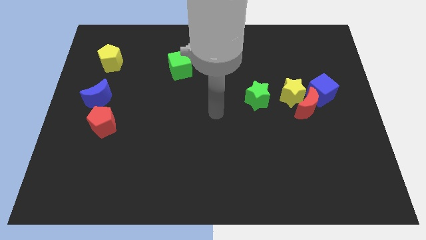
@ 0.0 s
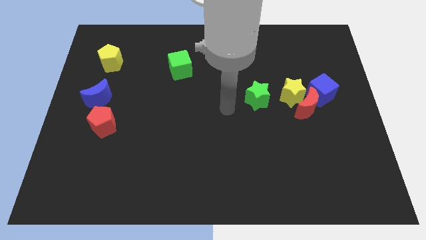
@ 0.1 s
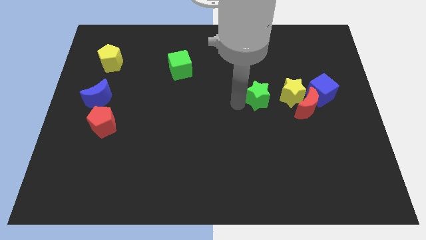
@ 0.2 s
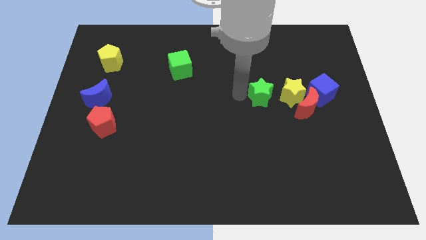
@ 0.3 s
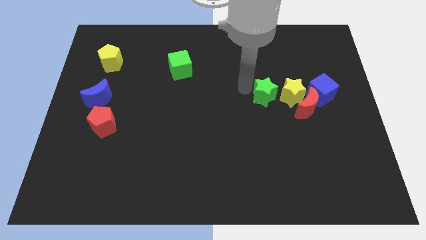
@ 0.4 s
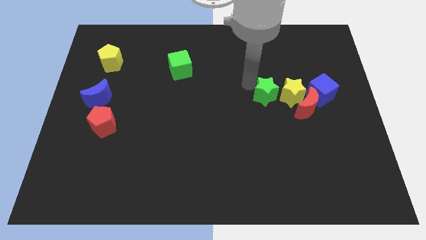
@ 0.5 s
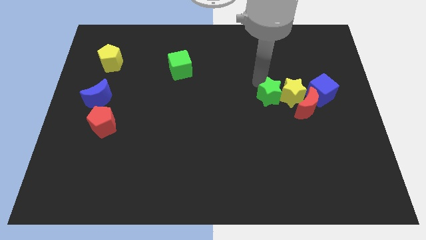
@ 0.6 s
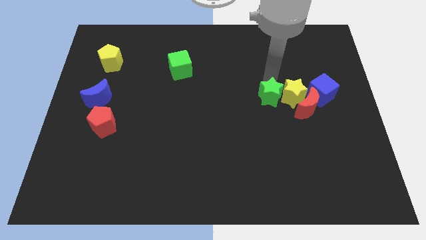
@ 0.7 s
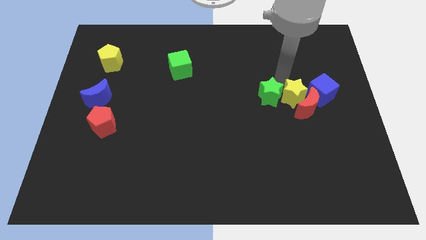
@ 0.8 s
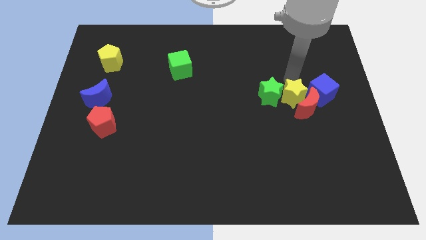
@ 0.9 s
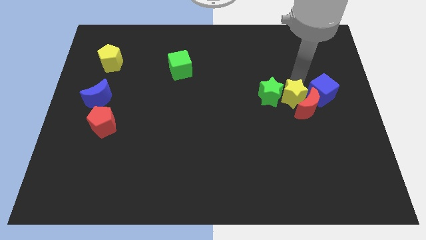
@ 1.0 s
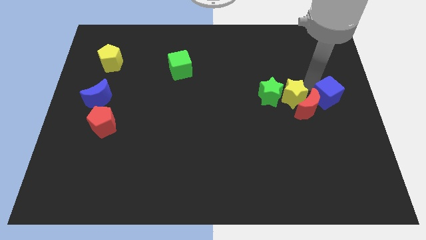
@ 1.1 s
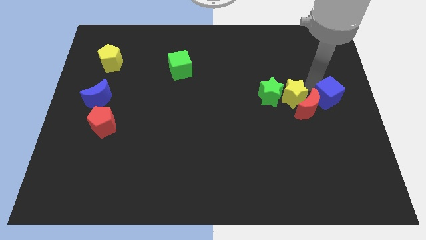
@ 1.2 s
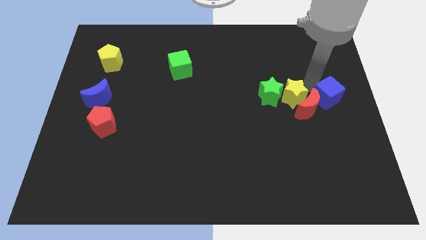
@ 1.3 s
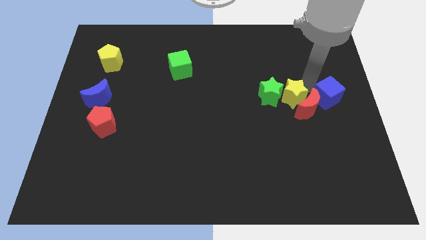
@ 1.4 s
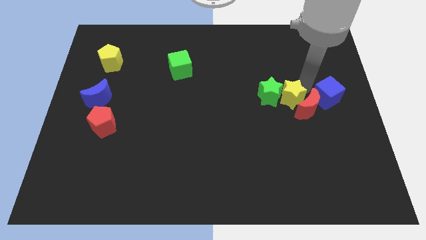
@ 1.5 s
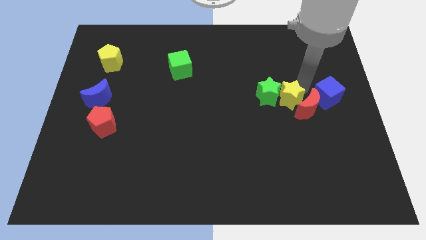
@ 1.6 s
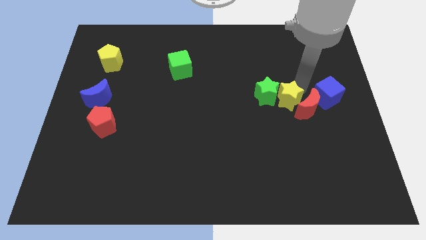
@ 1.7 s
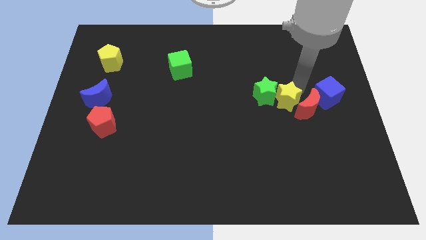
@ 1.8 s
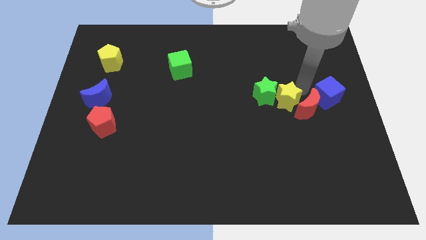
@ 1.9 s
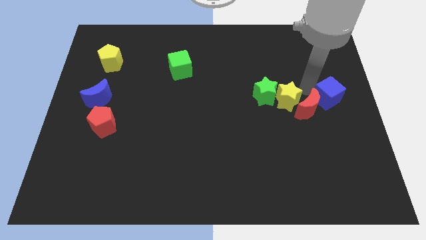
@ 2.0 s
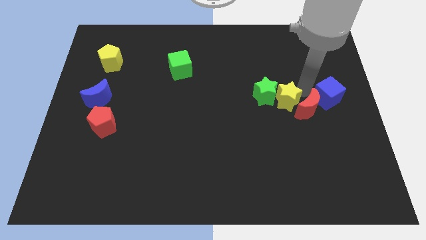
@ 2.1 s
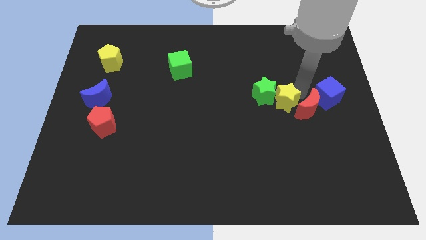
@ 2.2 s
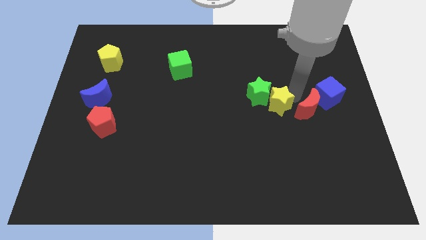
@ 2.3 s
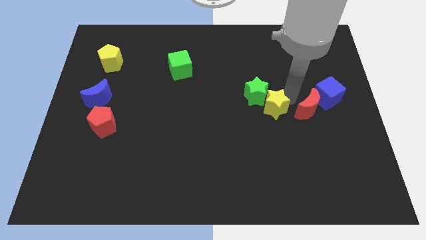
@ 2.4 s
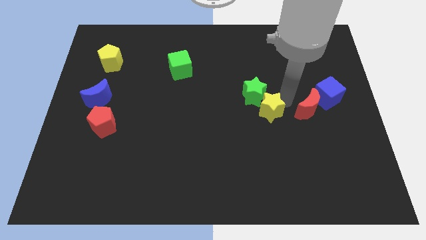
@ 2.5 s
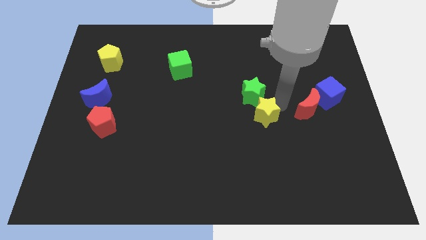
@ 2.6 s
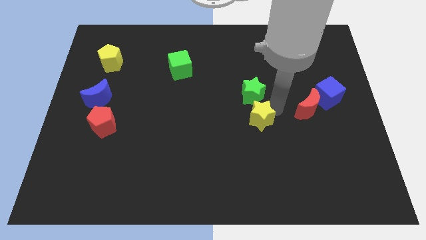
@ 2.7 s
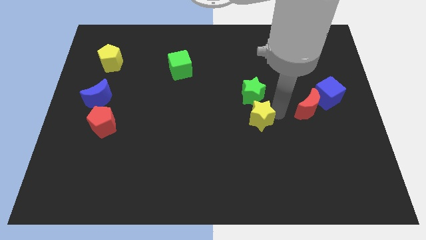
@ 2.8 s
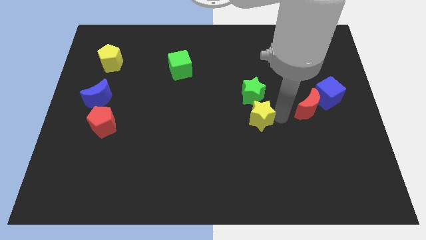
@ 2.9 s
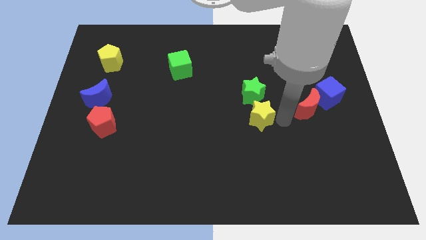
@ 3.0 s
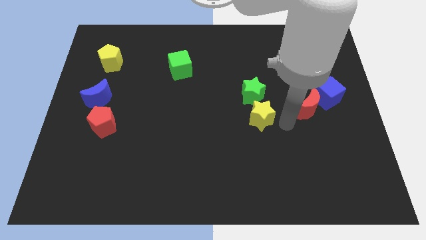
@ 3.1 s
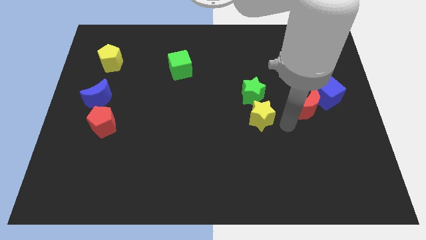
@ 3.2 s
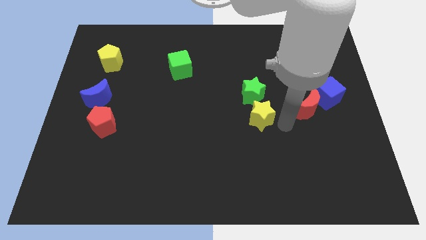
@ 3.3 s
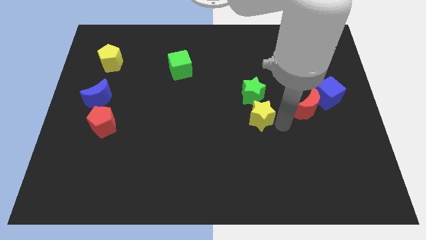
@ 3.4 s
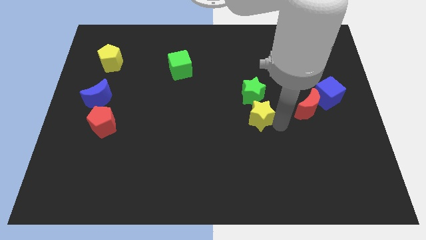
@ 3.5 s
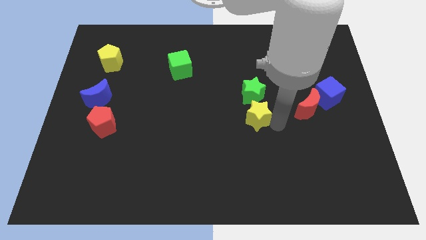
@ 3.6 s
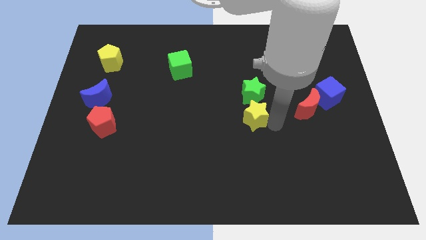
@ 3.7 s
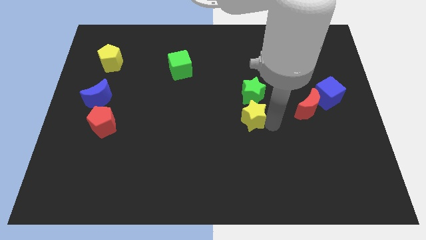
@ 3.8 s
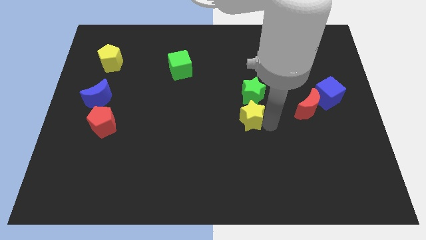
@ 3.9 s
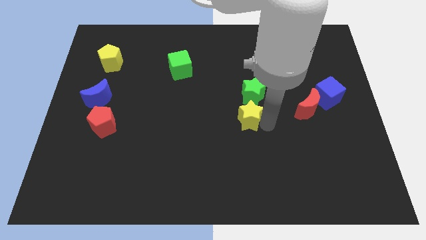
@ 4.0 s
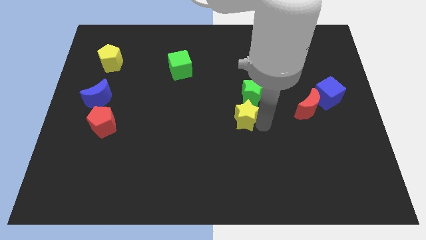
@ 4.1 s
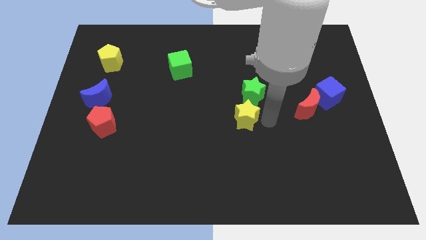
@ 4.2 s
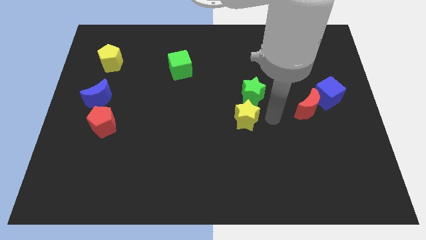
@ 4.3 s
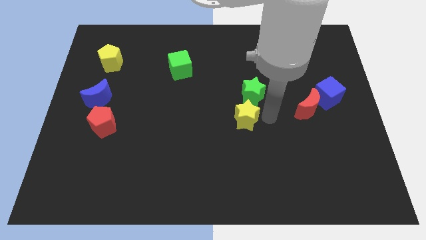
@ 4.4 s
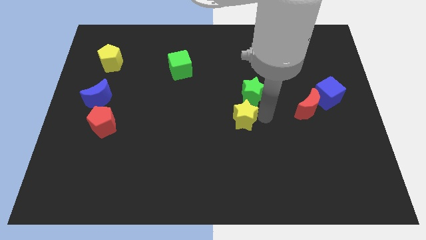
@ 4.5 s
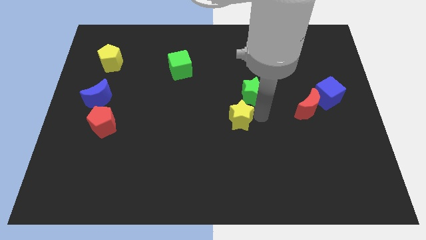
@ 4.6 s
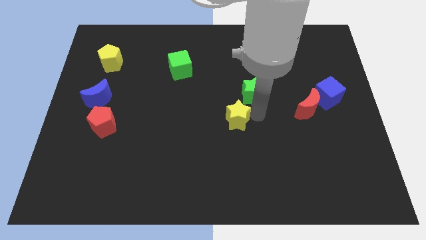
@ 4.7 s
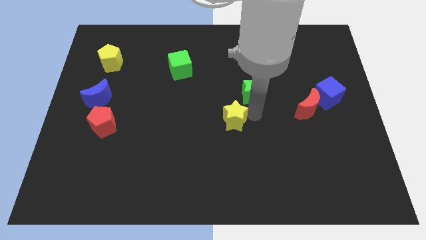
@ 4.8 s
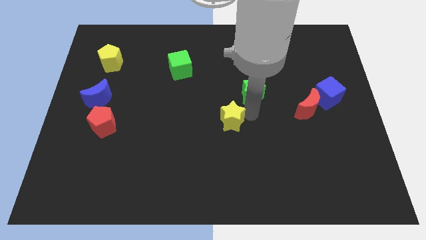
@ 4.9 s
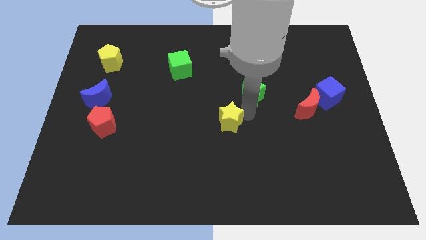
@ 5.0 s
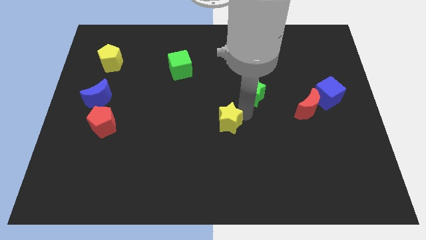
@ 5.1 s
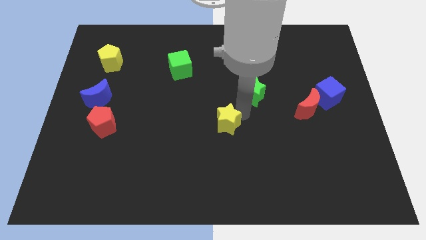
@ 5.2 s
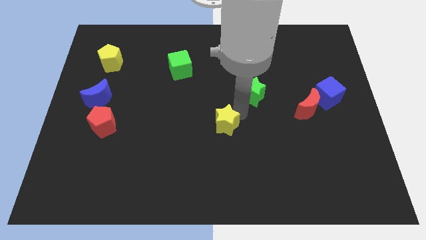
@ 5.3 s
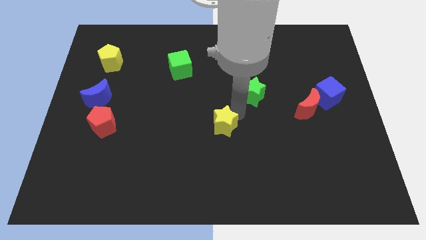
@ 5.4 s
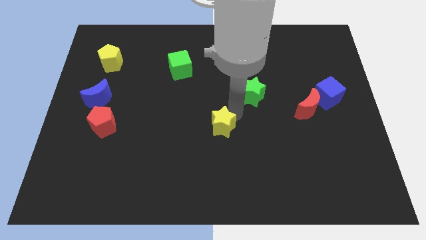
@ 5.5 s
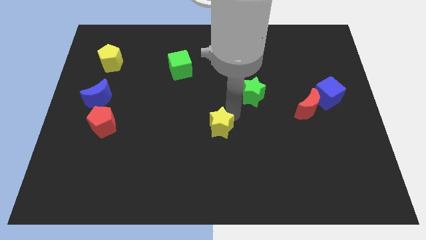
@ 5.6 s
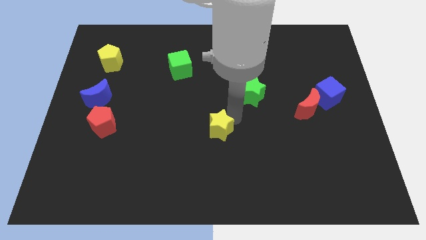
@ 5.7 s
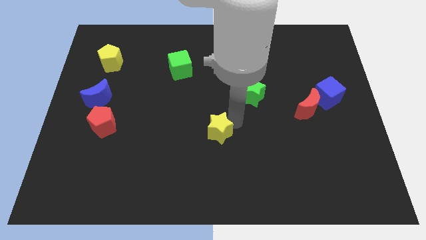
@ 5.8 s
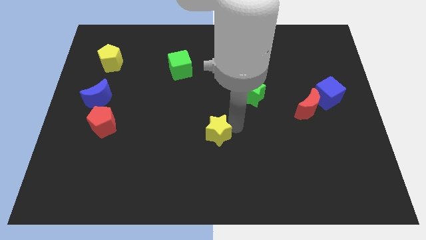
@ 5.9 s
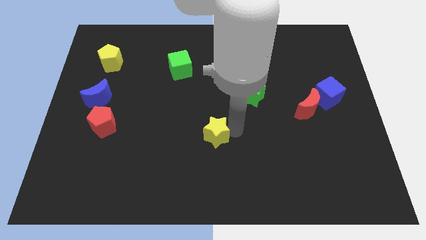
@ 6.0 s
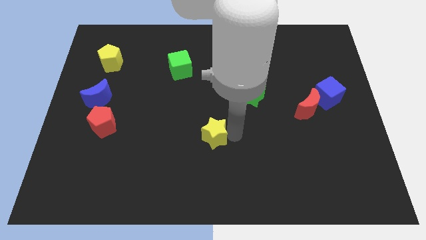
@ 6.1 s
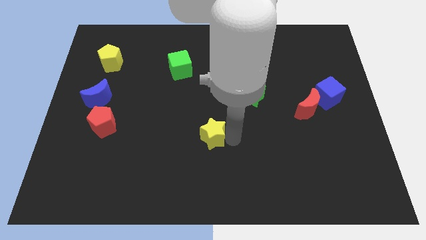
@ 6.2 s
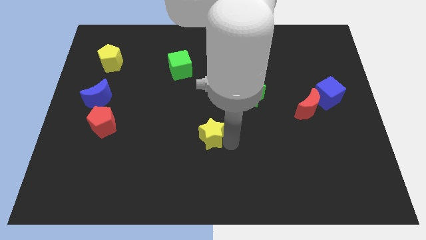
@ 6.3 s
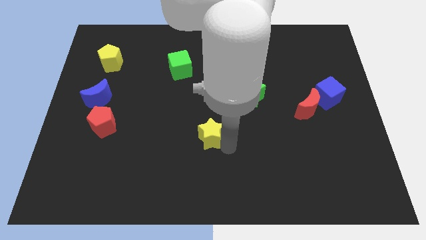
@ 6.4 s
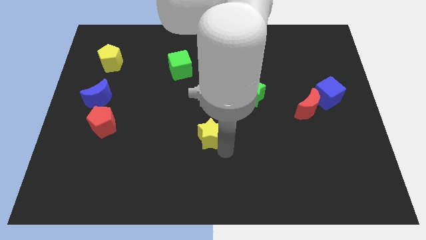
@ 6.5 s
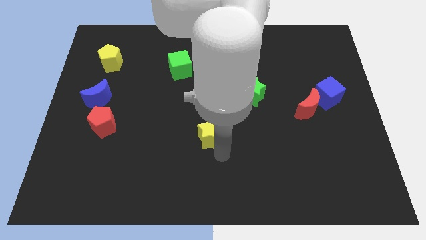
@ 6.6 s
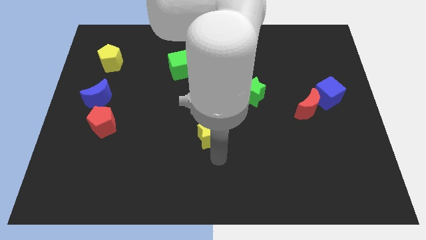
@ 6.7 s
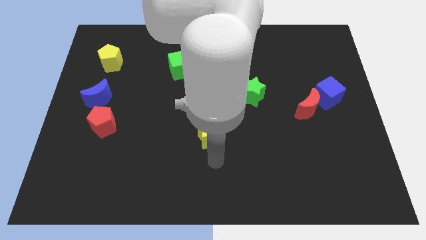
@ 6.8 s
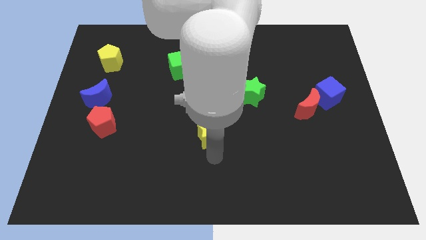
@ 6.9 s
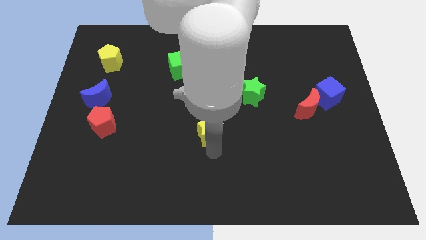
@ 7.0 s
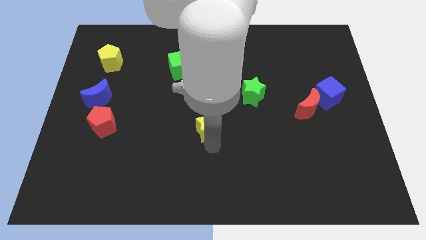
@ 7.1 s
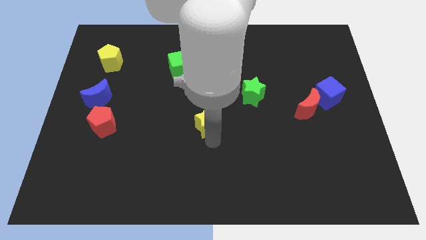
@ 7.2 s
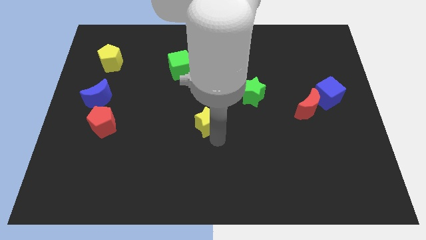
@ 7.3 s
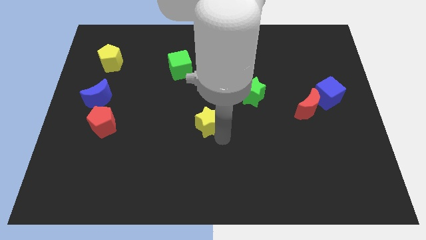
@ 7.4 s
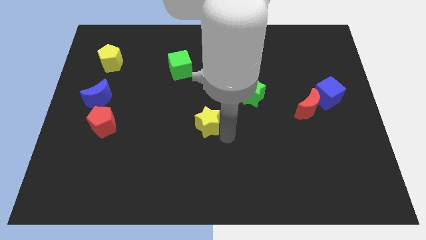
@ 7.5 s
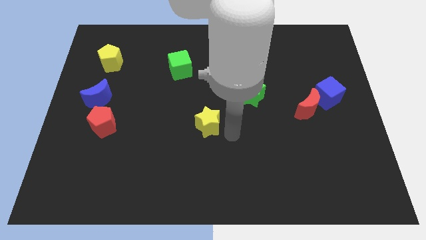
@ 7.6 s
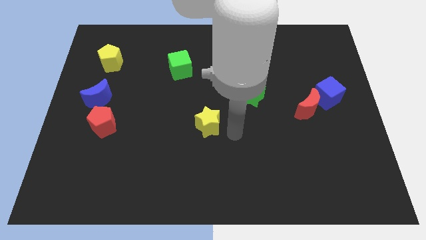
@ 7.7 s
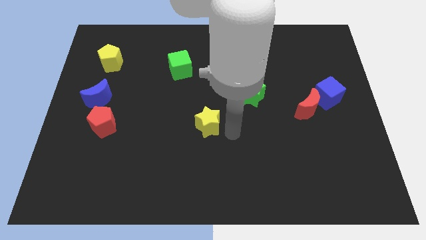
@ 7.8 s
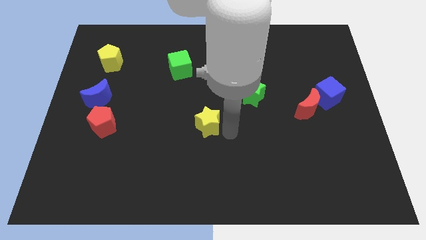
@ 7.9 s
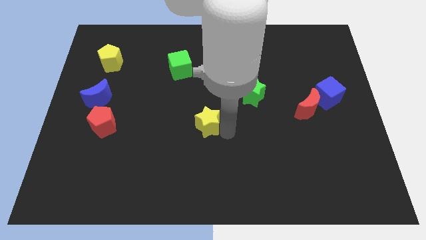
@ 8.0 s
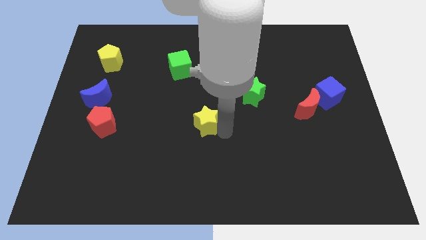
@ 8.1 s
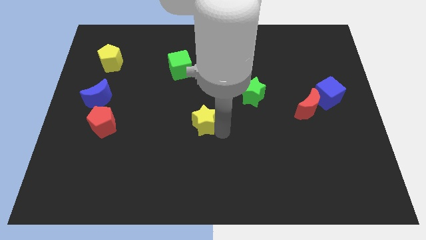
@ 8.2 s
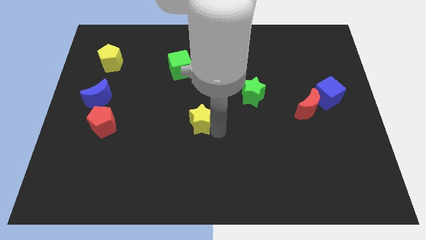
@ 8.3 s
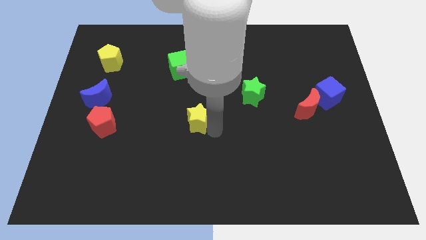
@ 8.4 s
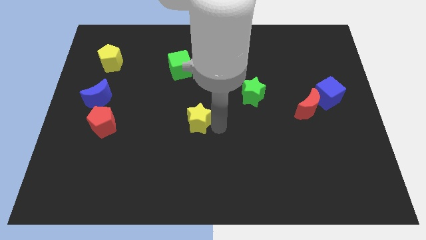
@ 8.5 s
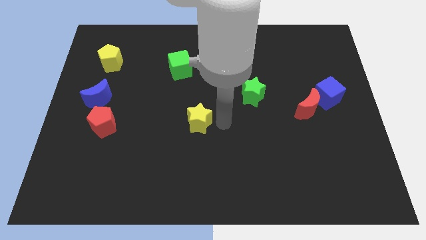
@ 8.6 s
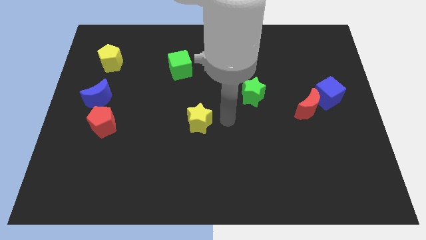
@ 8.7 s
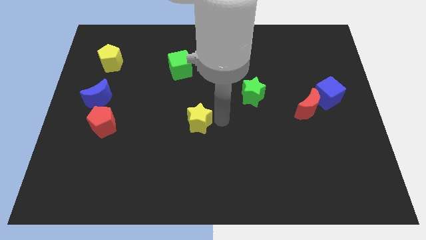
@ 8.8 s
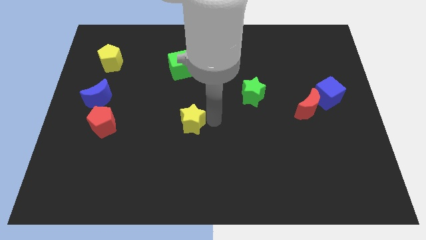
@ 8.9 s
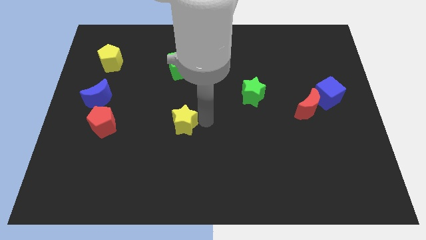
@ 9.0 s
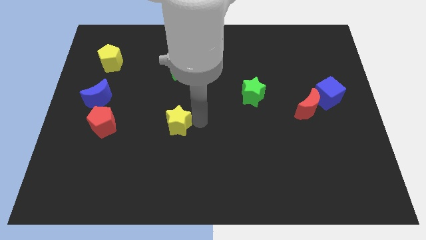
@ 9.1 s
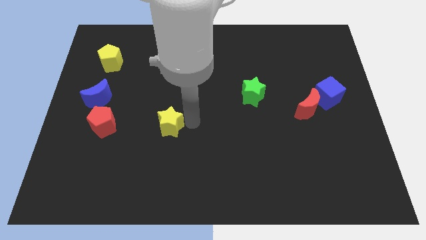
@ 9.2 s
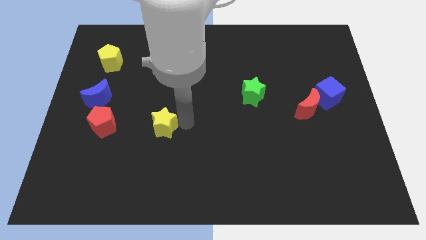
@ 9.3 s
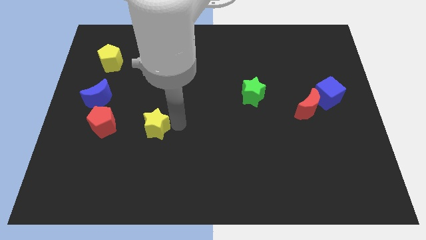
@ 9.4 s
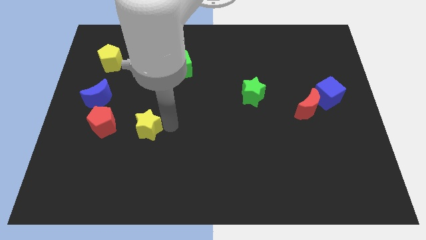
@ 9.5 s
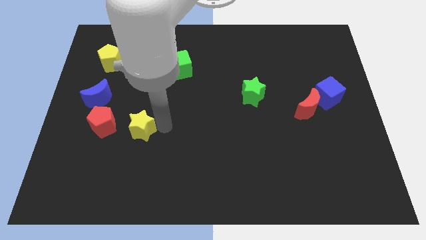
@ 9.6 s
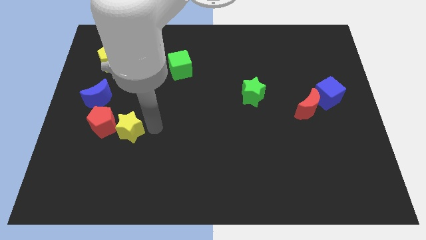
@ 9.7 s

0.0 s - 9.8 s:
put the yellow star to the red pentagon
